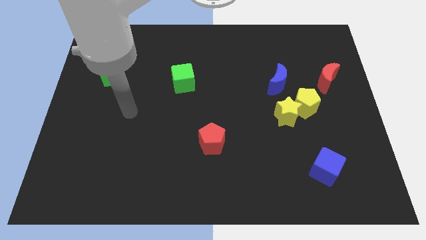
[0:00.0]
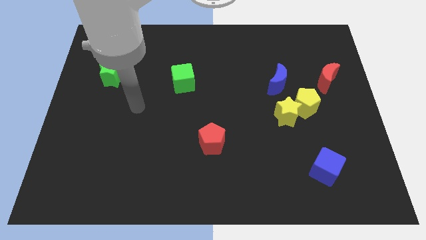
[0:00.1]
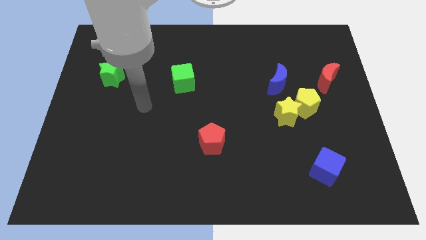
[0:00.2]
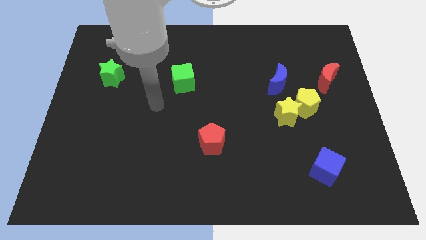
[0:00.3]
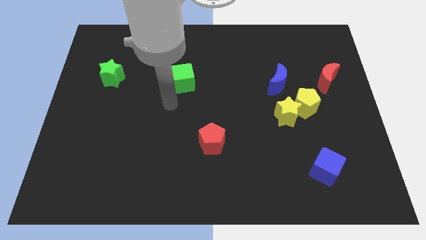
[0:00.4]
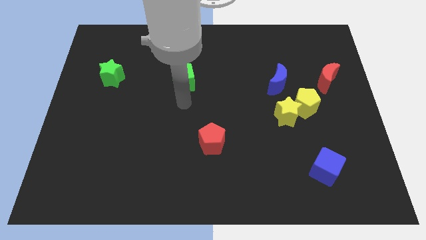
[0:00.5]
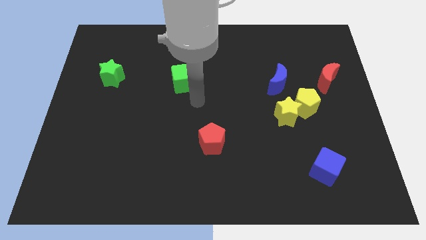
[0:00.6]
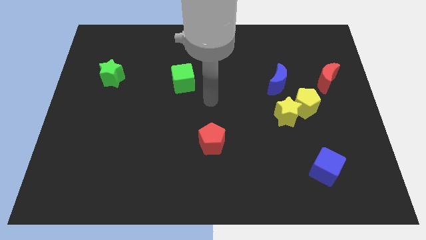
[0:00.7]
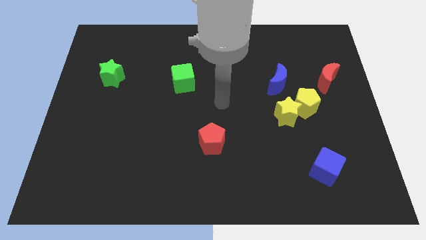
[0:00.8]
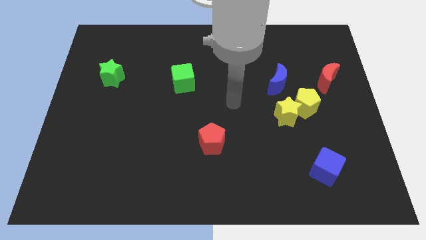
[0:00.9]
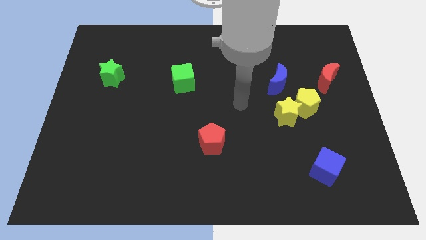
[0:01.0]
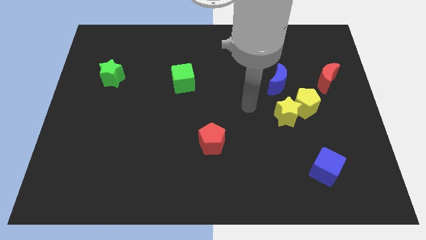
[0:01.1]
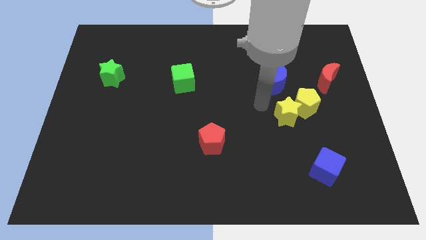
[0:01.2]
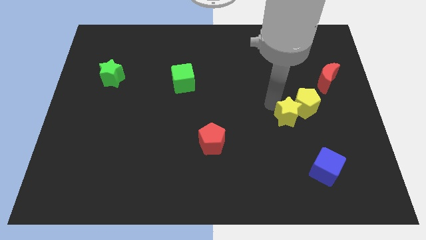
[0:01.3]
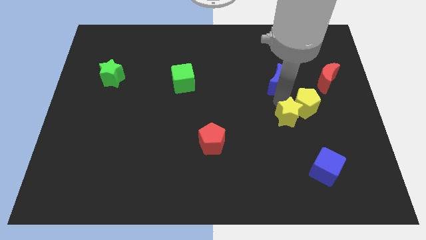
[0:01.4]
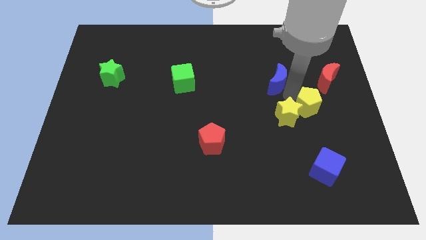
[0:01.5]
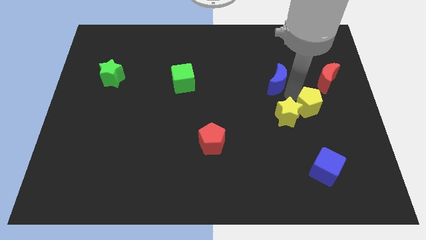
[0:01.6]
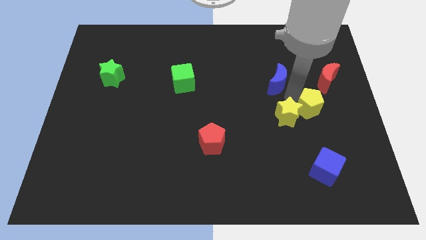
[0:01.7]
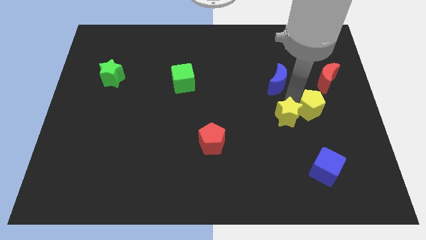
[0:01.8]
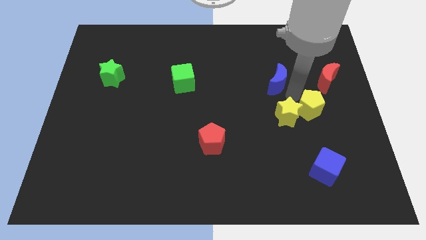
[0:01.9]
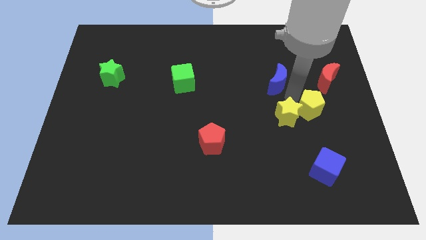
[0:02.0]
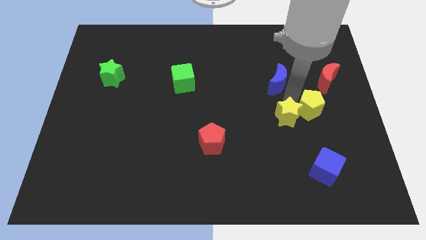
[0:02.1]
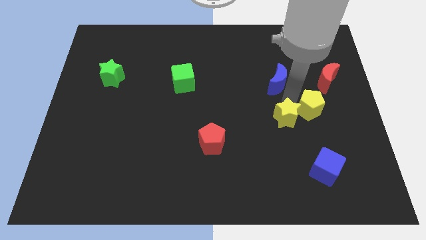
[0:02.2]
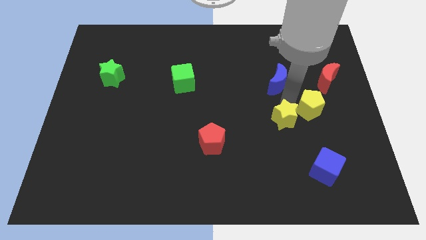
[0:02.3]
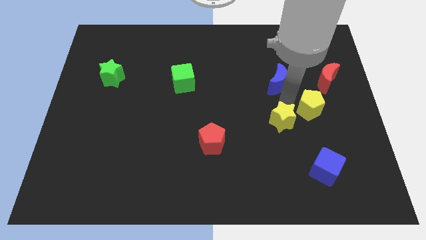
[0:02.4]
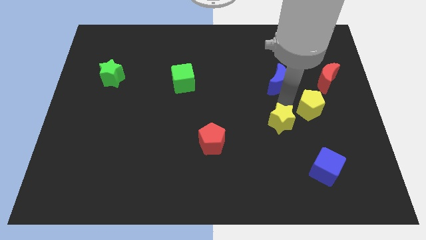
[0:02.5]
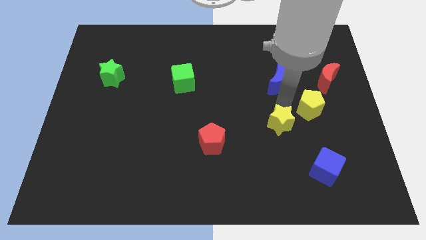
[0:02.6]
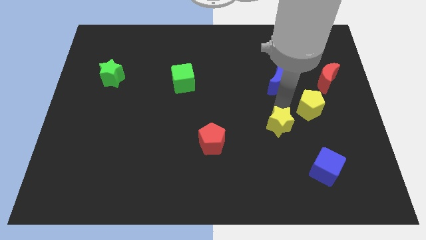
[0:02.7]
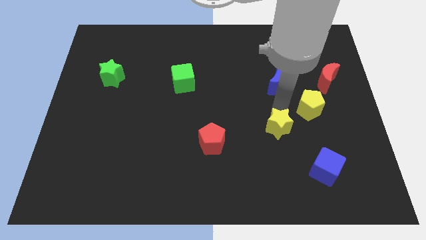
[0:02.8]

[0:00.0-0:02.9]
move the yellow star away from the yellow pentagon and blue moon

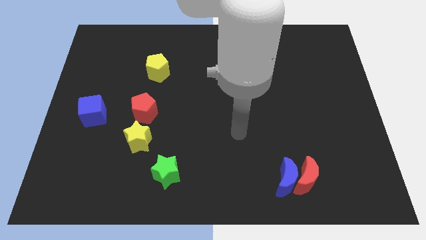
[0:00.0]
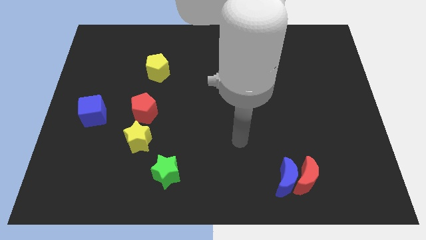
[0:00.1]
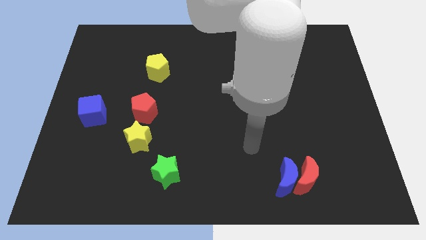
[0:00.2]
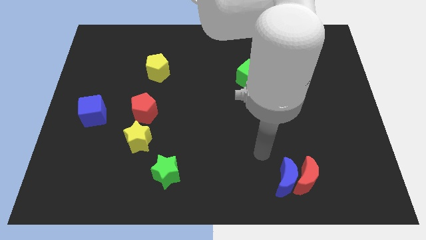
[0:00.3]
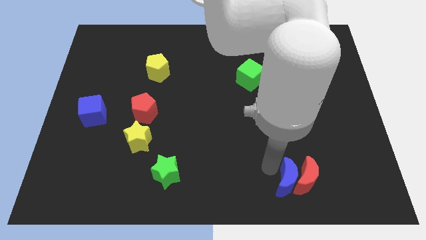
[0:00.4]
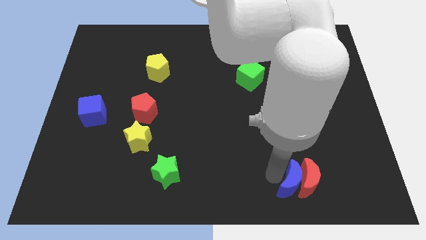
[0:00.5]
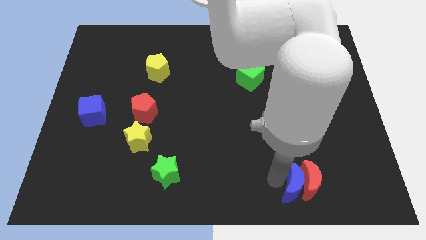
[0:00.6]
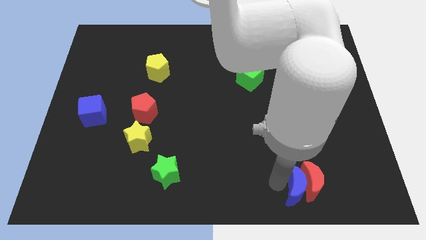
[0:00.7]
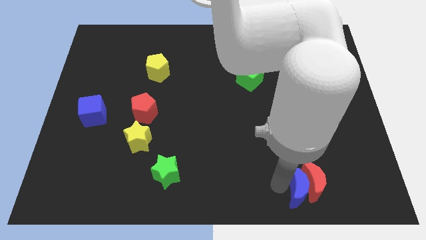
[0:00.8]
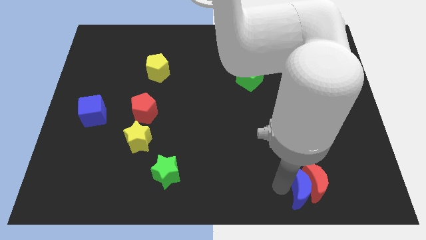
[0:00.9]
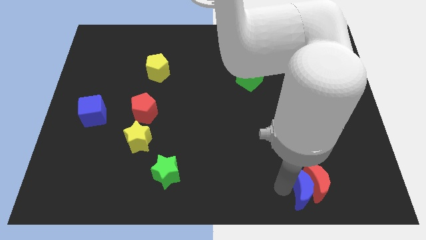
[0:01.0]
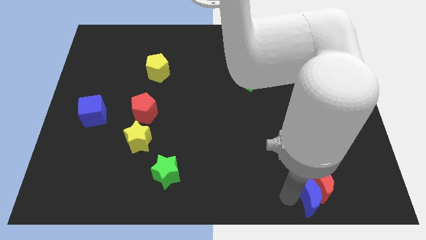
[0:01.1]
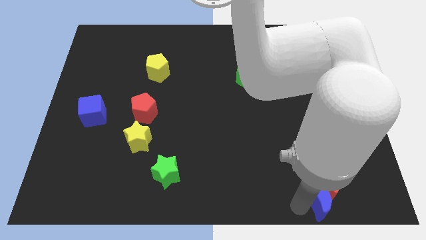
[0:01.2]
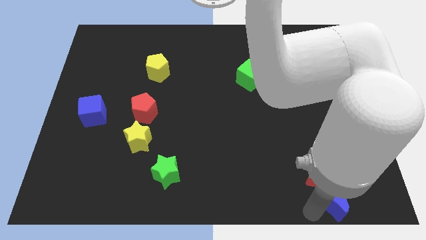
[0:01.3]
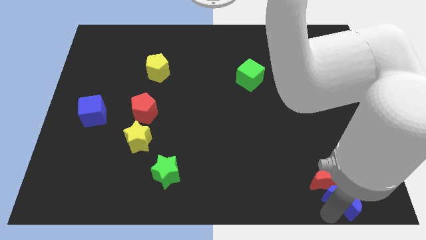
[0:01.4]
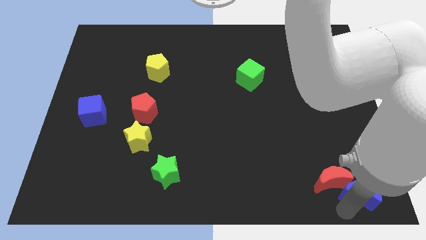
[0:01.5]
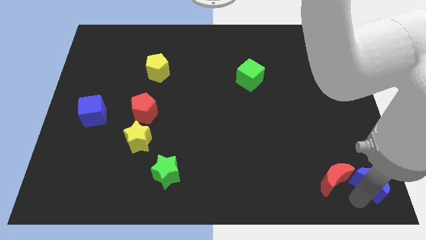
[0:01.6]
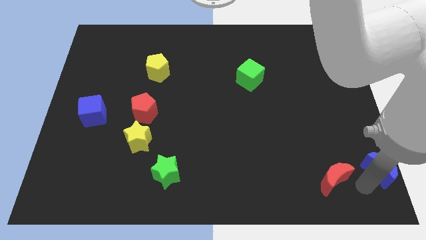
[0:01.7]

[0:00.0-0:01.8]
pull the red moon apart from the blue moon

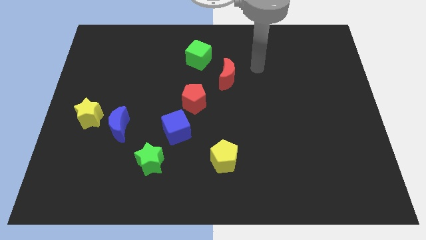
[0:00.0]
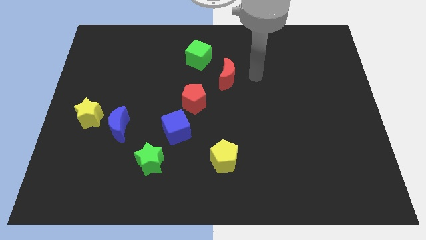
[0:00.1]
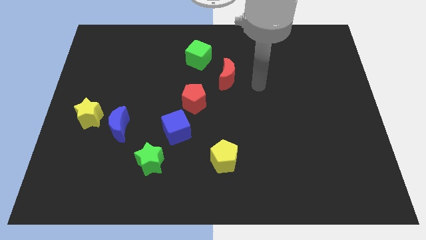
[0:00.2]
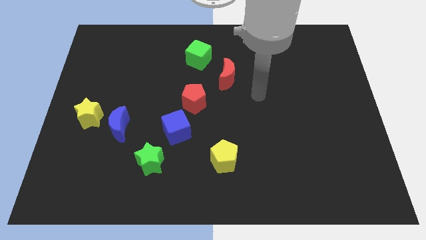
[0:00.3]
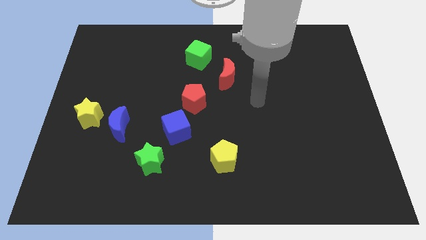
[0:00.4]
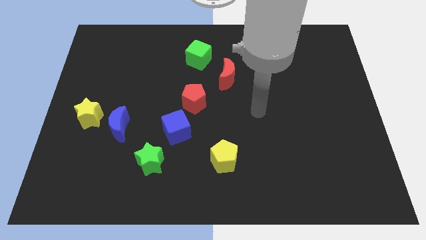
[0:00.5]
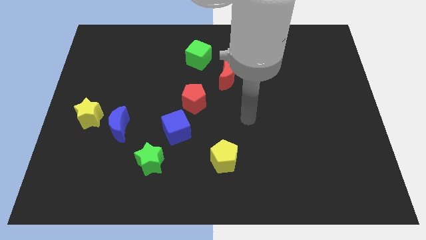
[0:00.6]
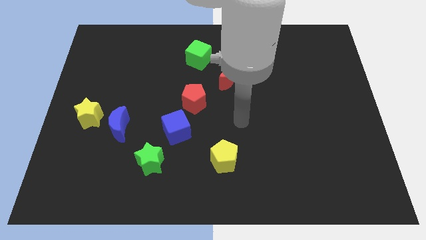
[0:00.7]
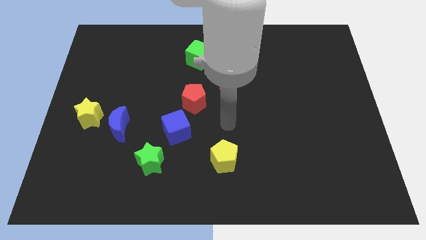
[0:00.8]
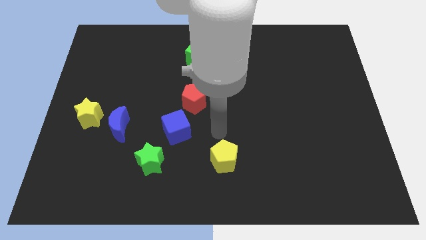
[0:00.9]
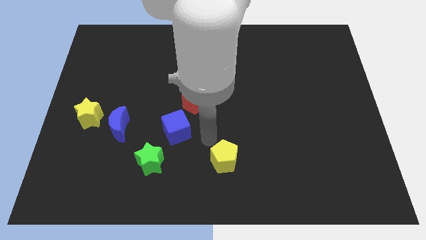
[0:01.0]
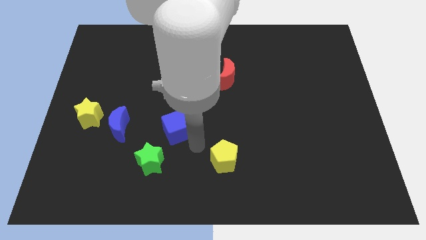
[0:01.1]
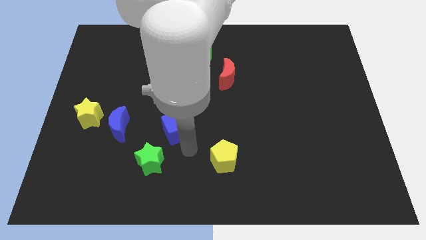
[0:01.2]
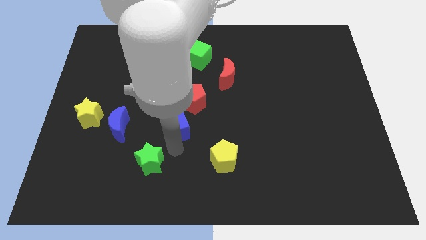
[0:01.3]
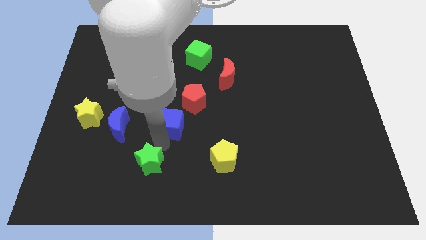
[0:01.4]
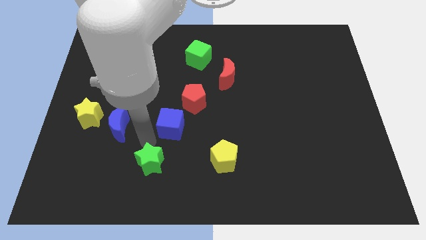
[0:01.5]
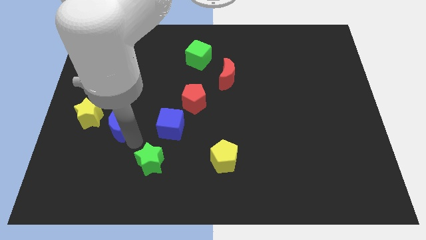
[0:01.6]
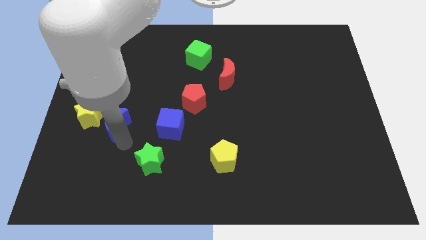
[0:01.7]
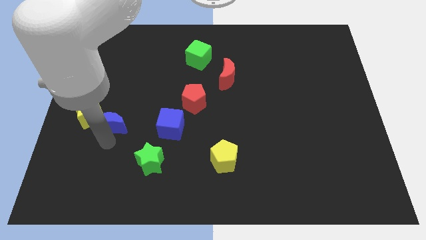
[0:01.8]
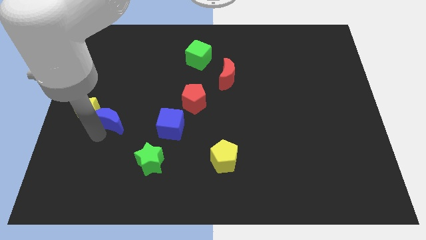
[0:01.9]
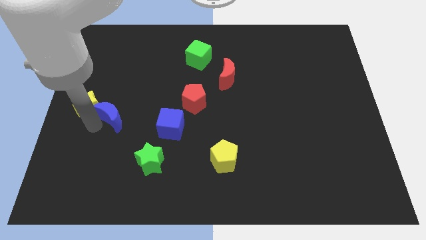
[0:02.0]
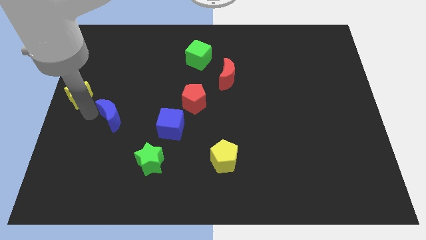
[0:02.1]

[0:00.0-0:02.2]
separate the blue moon from the yellow star

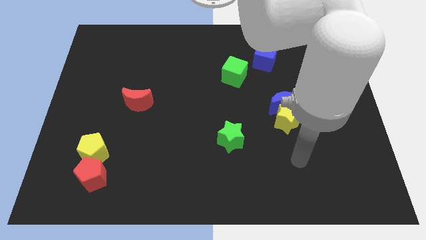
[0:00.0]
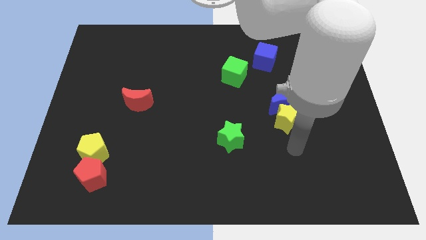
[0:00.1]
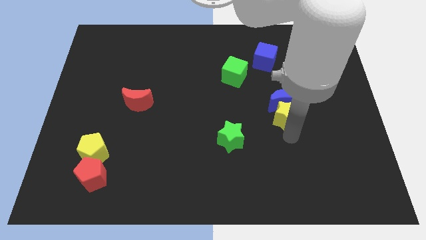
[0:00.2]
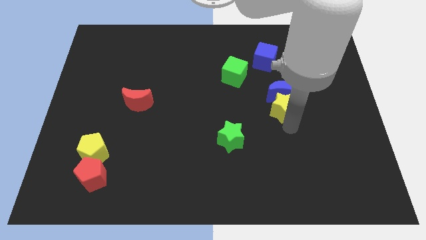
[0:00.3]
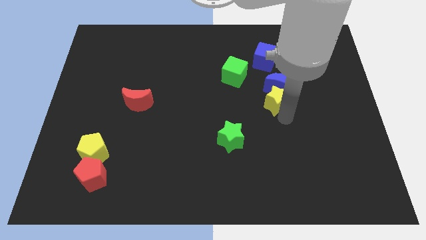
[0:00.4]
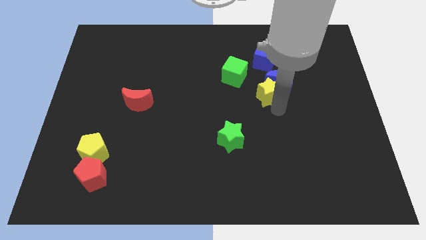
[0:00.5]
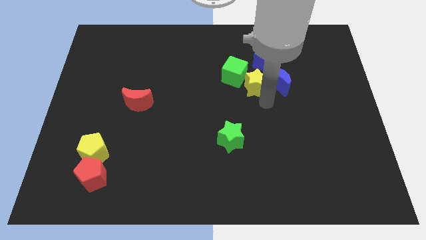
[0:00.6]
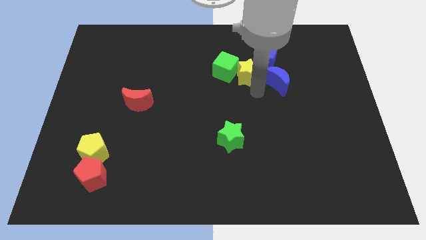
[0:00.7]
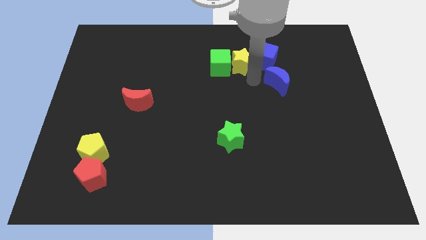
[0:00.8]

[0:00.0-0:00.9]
pull the blue moon apart from the yellow star

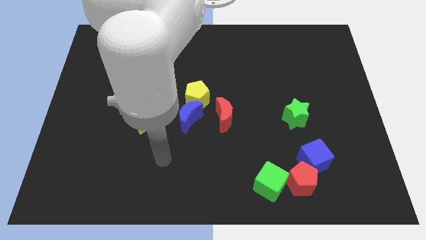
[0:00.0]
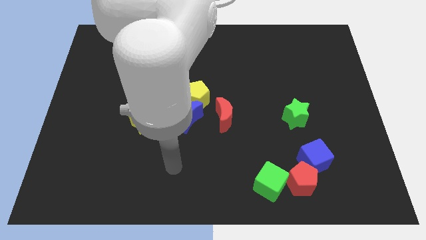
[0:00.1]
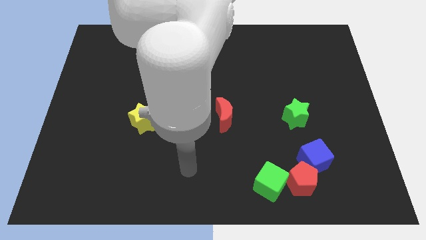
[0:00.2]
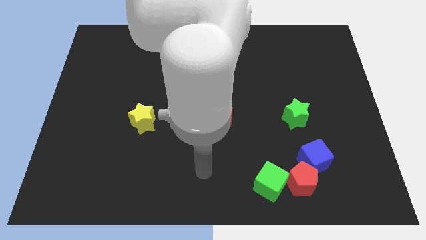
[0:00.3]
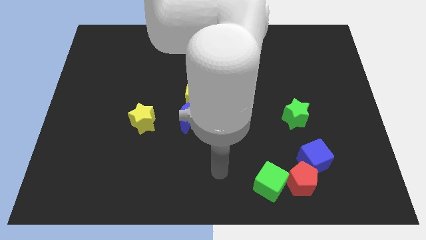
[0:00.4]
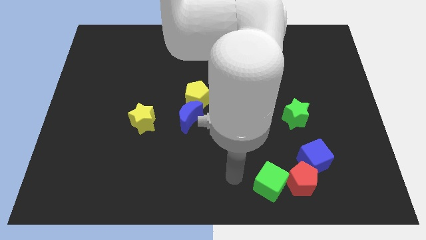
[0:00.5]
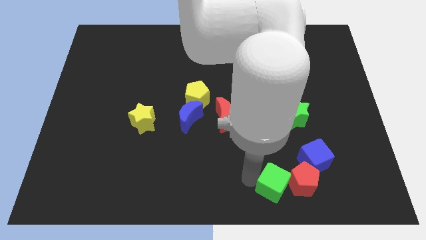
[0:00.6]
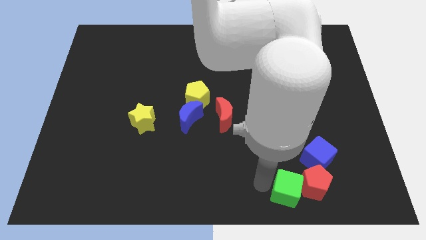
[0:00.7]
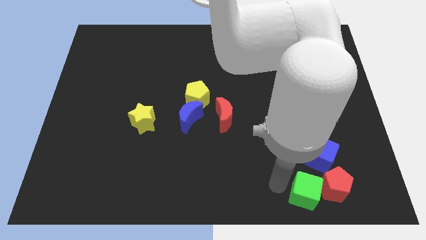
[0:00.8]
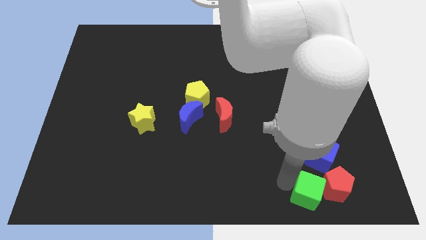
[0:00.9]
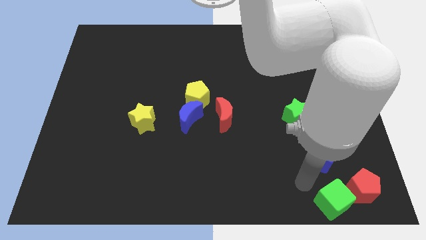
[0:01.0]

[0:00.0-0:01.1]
separate the blue cube from the red pentagon

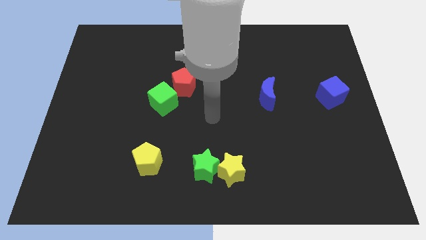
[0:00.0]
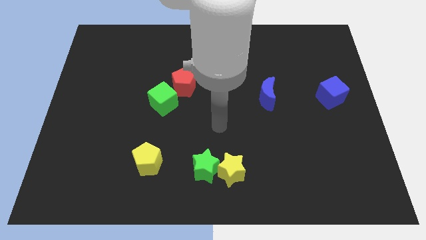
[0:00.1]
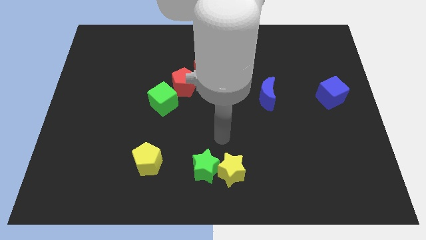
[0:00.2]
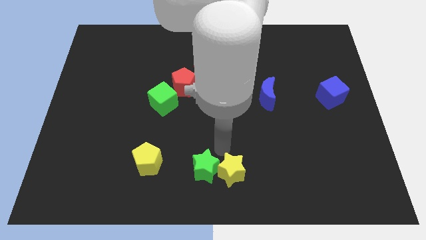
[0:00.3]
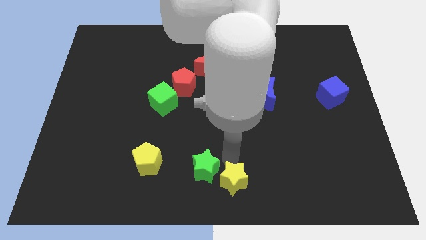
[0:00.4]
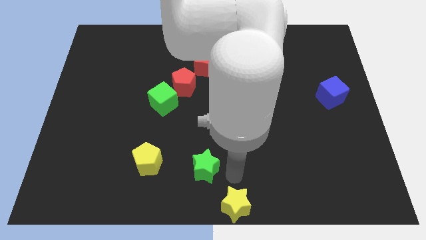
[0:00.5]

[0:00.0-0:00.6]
move the green star away from the yellow star

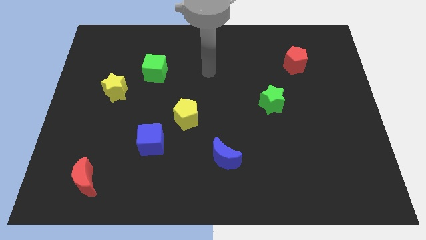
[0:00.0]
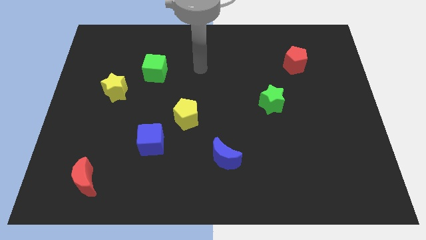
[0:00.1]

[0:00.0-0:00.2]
move the blue cube away from the yellow pentagon
